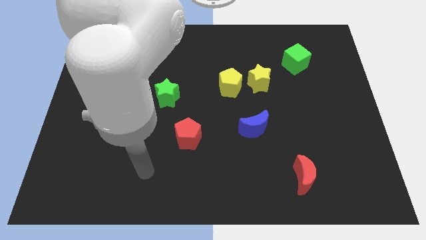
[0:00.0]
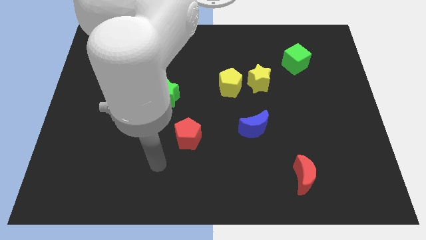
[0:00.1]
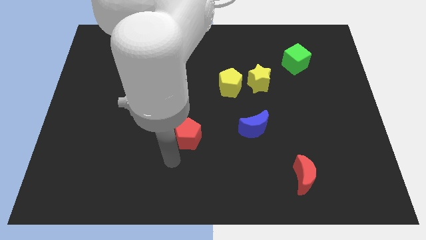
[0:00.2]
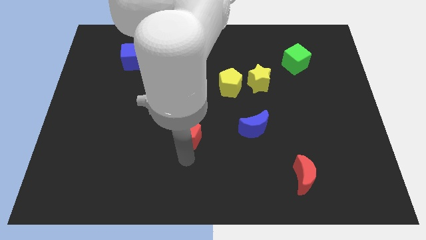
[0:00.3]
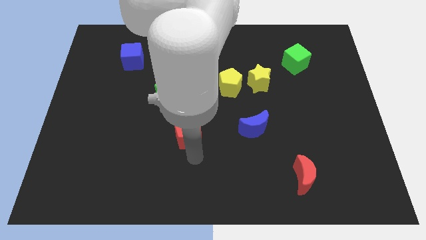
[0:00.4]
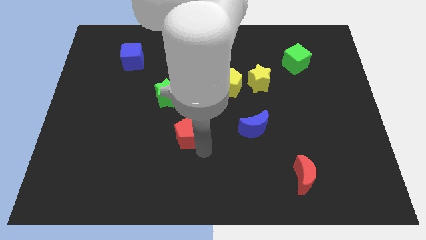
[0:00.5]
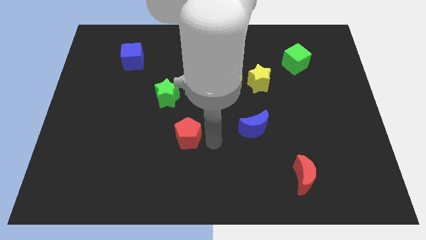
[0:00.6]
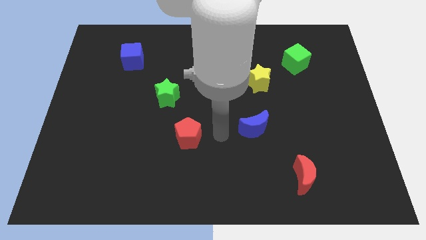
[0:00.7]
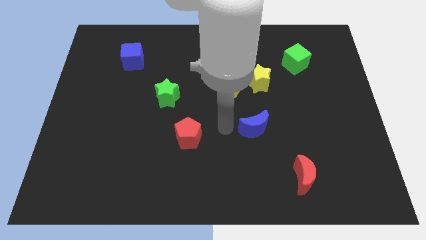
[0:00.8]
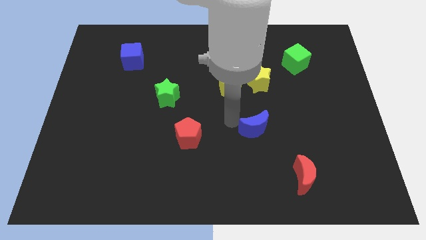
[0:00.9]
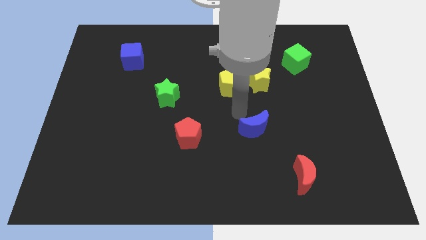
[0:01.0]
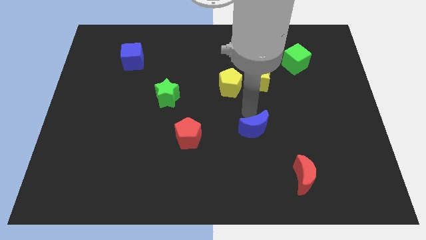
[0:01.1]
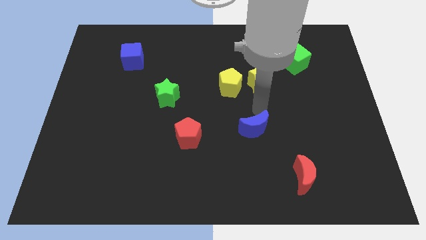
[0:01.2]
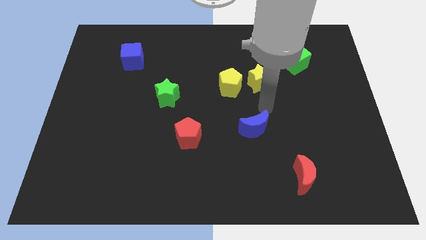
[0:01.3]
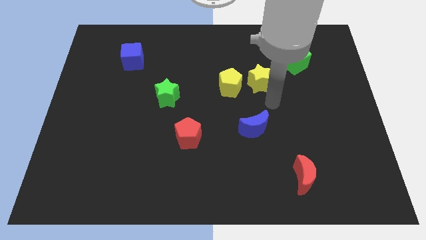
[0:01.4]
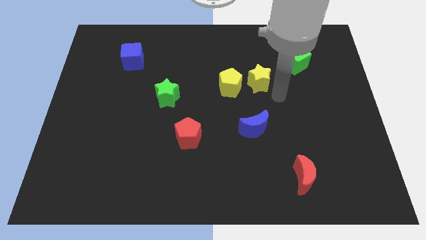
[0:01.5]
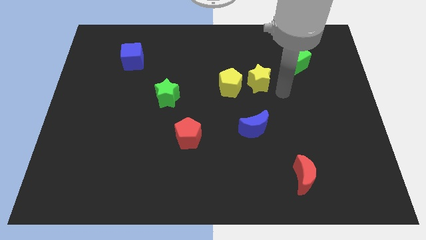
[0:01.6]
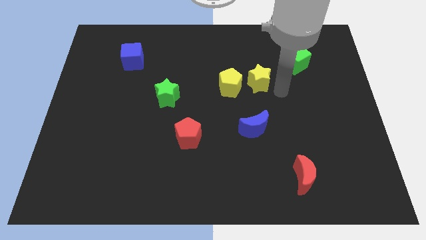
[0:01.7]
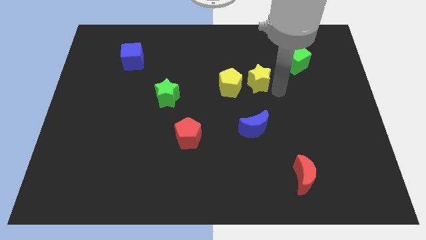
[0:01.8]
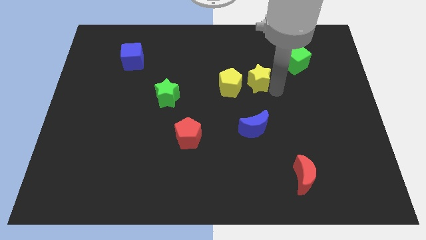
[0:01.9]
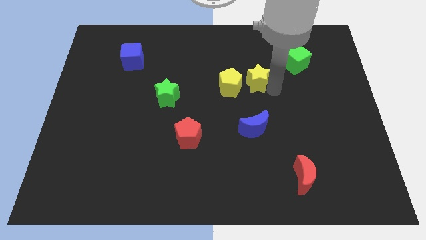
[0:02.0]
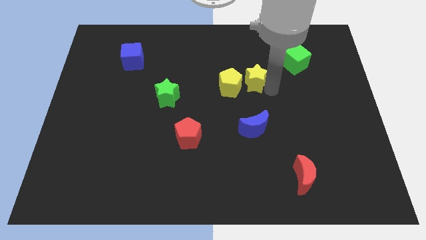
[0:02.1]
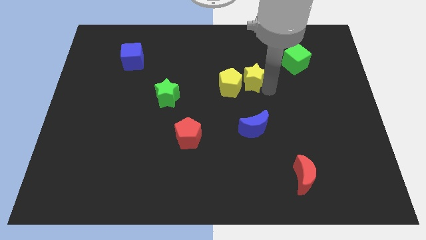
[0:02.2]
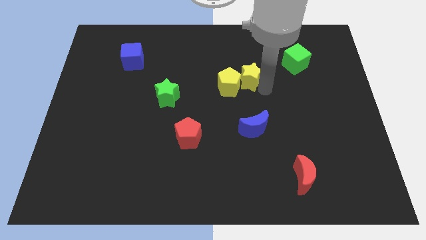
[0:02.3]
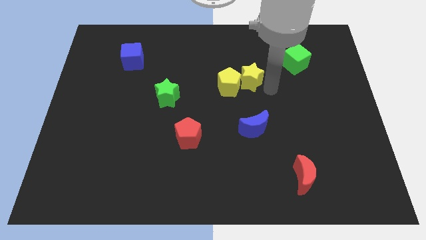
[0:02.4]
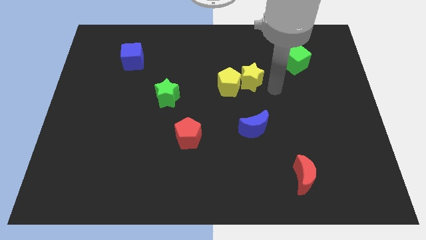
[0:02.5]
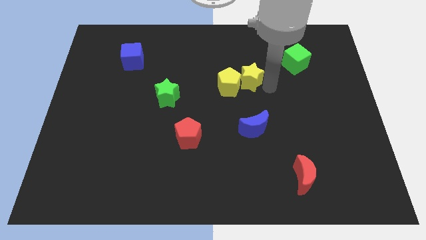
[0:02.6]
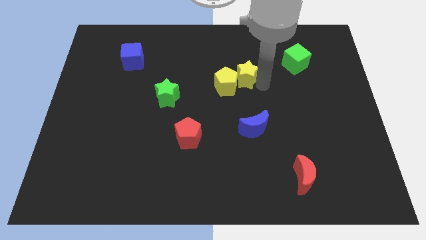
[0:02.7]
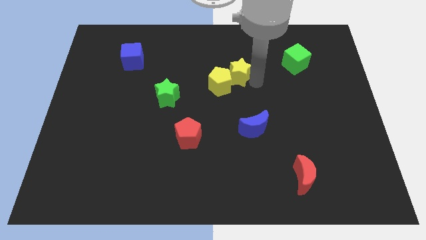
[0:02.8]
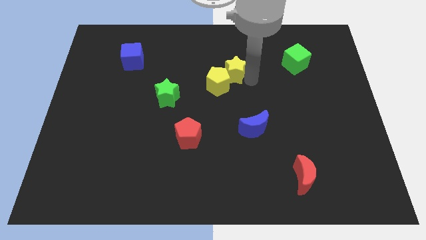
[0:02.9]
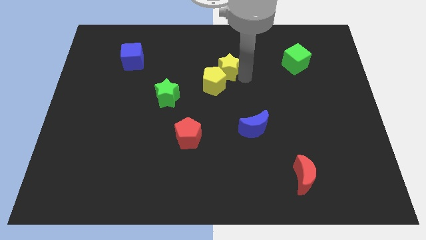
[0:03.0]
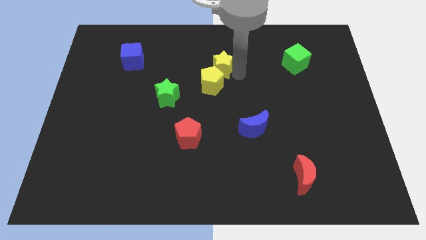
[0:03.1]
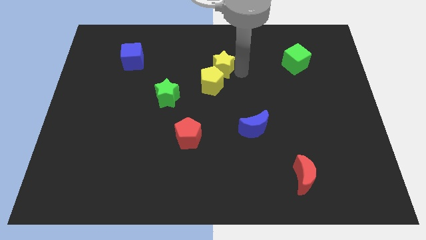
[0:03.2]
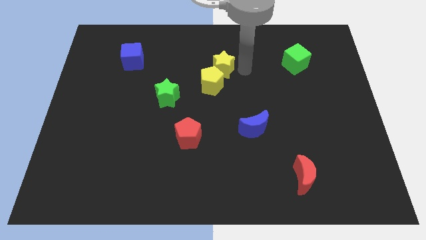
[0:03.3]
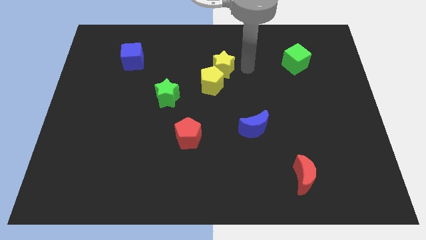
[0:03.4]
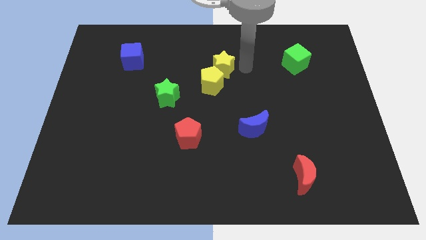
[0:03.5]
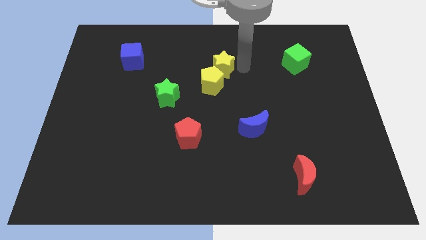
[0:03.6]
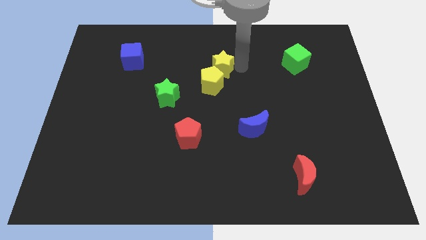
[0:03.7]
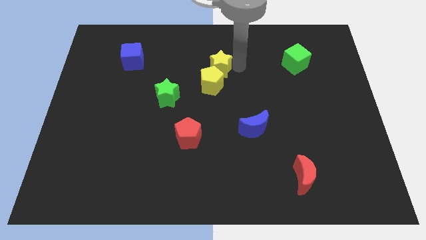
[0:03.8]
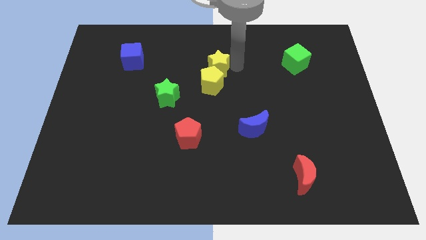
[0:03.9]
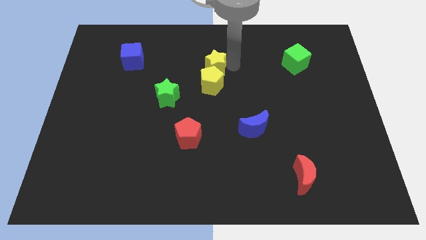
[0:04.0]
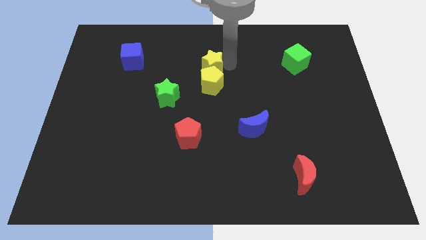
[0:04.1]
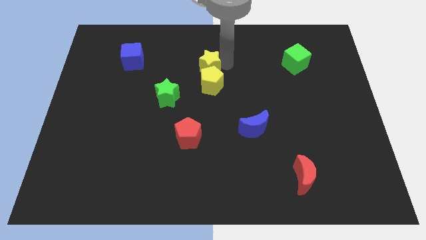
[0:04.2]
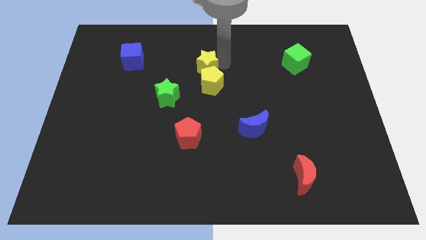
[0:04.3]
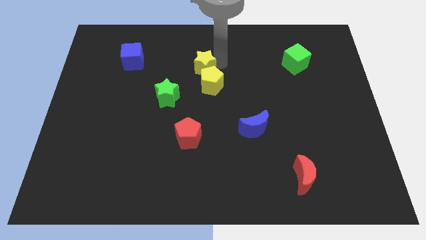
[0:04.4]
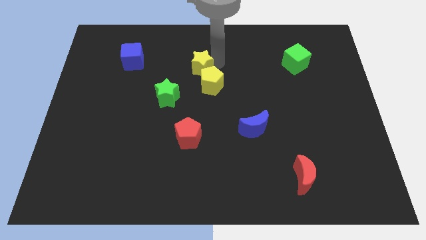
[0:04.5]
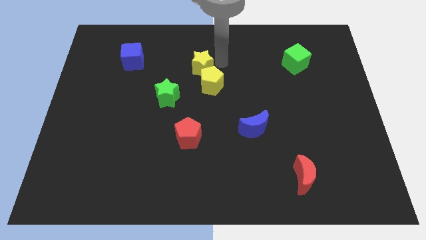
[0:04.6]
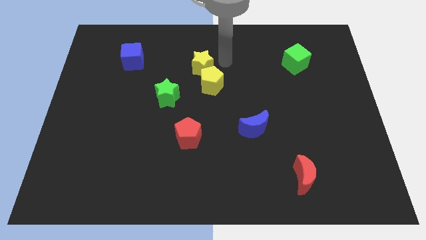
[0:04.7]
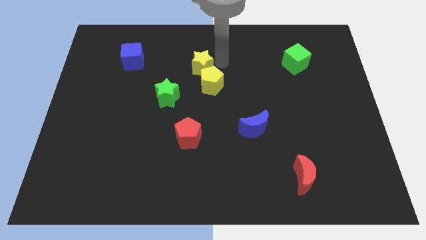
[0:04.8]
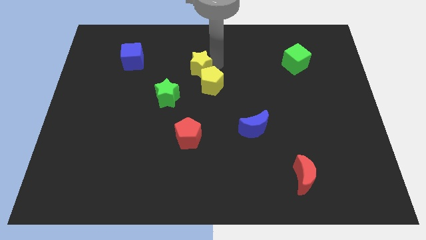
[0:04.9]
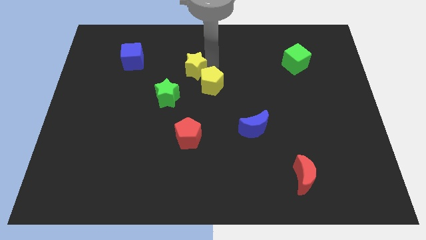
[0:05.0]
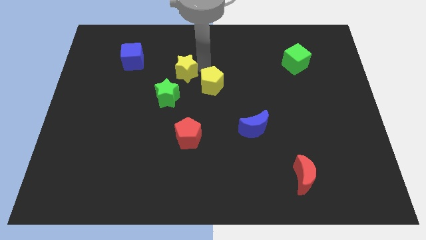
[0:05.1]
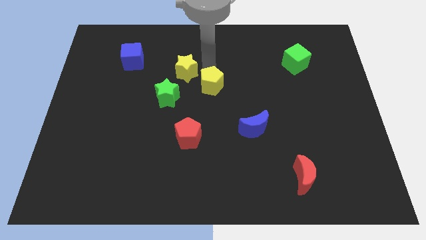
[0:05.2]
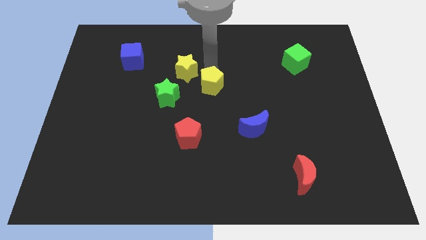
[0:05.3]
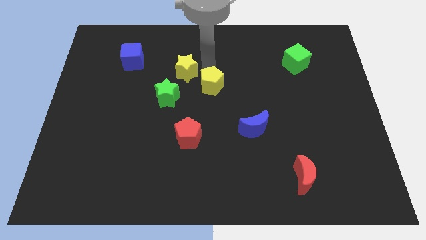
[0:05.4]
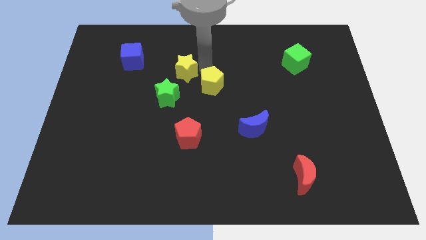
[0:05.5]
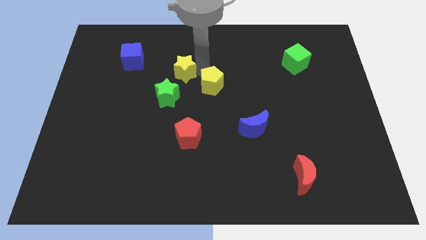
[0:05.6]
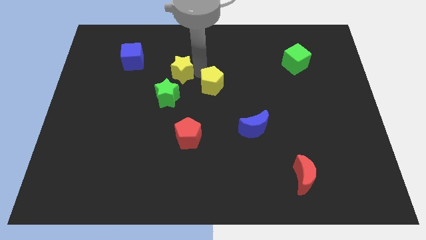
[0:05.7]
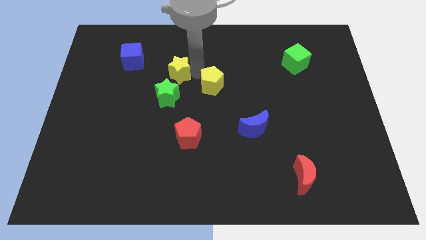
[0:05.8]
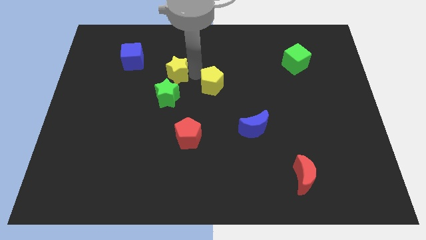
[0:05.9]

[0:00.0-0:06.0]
move the yellow star to the left

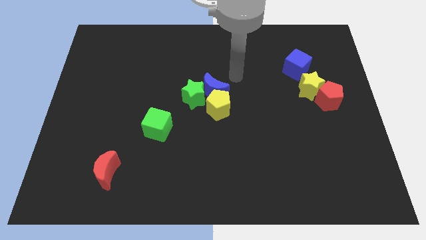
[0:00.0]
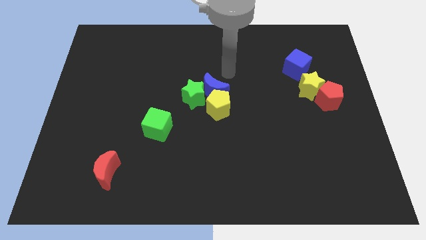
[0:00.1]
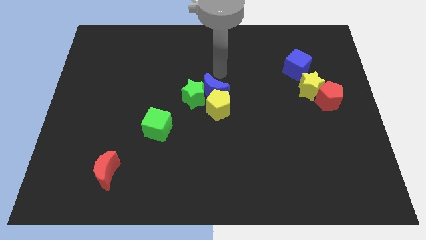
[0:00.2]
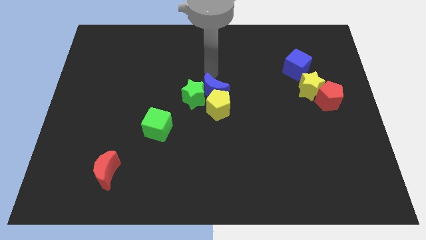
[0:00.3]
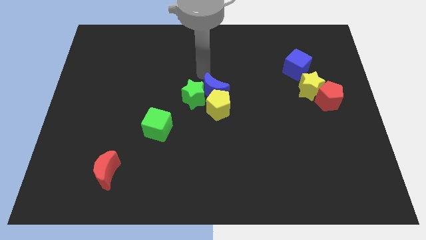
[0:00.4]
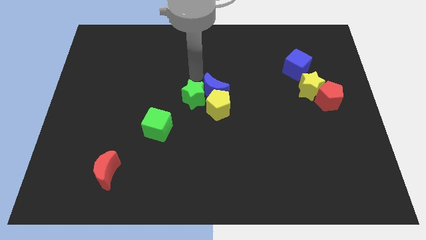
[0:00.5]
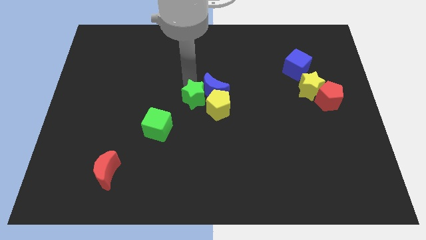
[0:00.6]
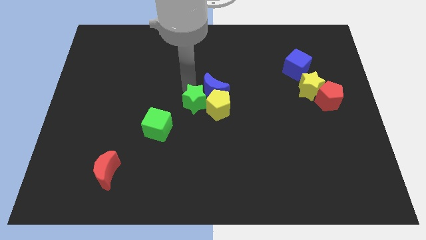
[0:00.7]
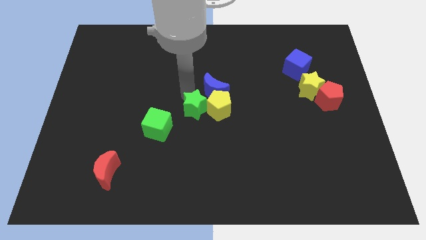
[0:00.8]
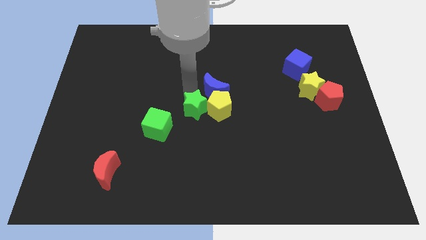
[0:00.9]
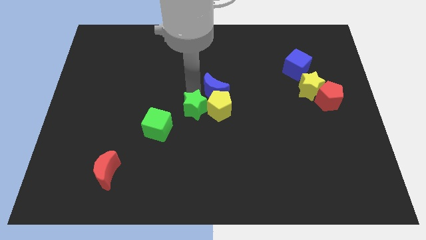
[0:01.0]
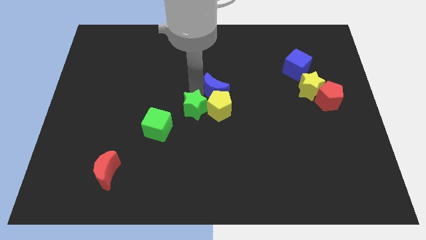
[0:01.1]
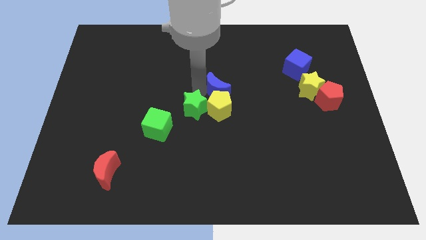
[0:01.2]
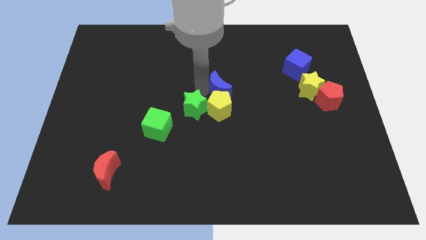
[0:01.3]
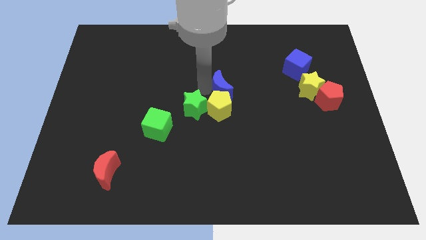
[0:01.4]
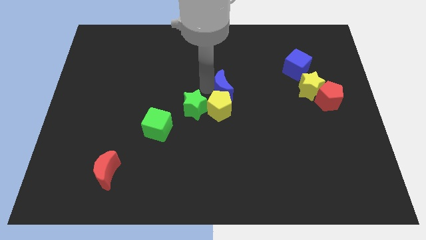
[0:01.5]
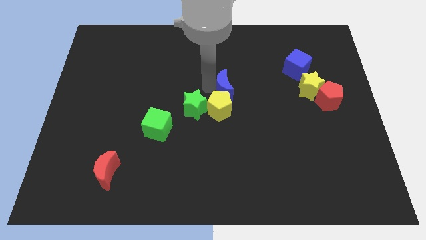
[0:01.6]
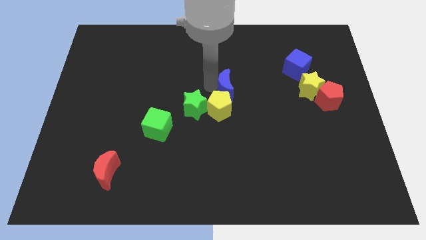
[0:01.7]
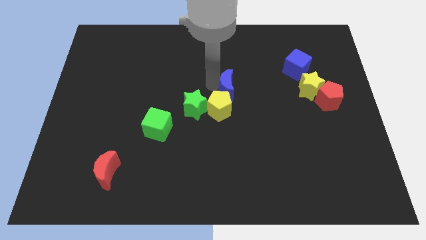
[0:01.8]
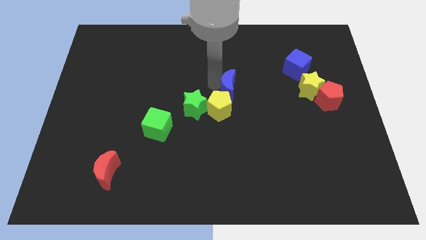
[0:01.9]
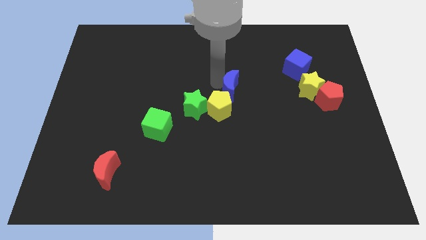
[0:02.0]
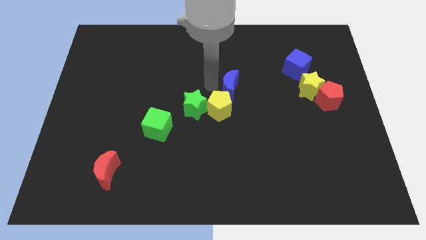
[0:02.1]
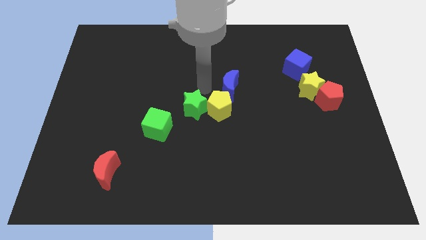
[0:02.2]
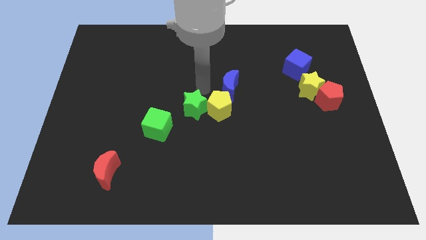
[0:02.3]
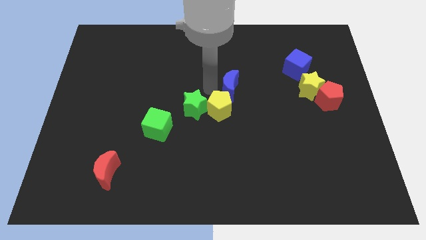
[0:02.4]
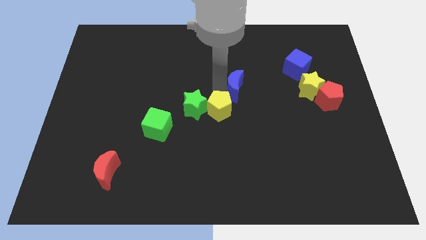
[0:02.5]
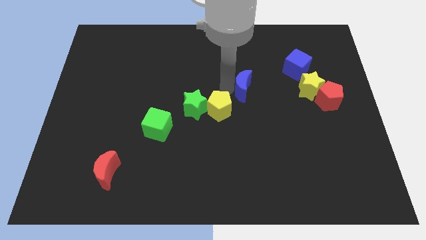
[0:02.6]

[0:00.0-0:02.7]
slightly push the blue moon to the right
